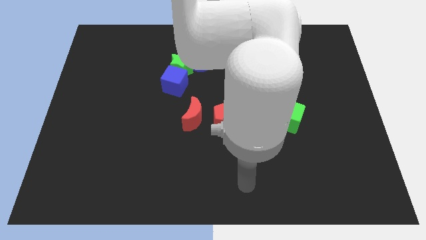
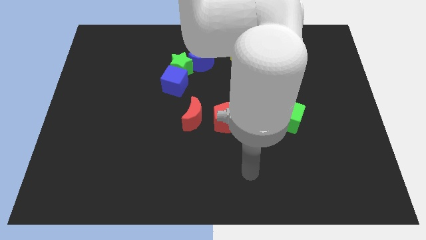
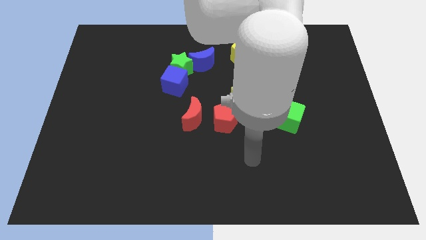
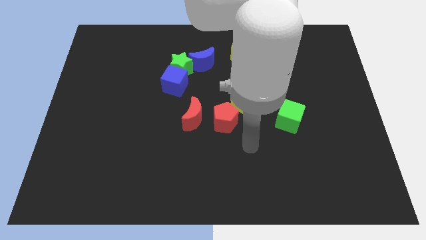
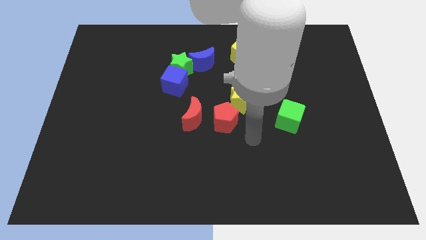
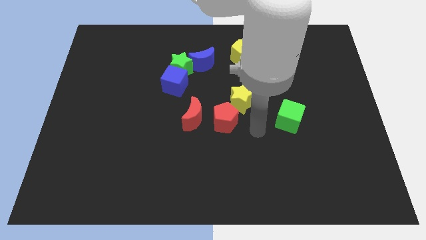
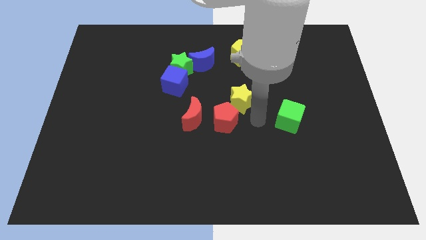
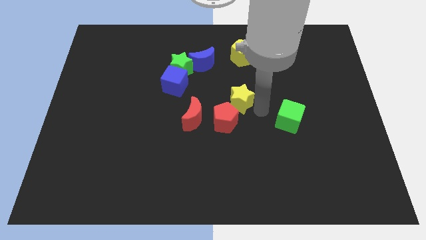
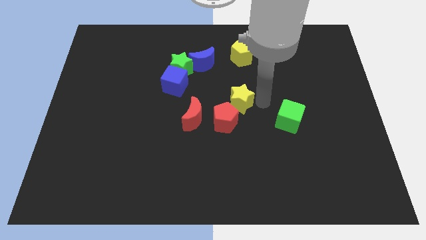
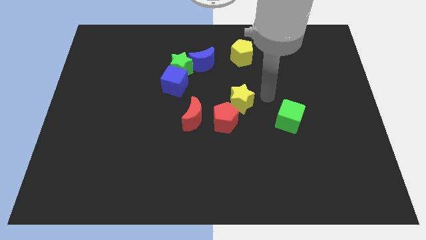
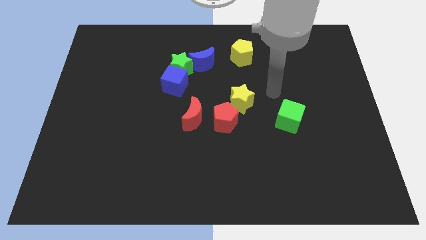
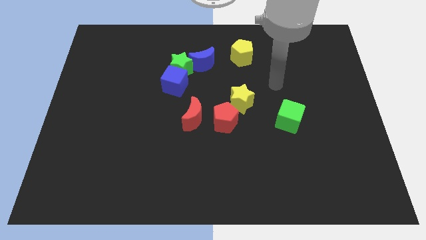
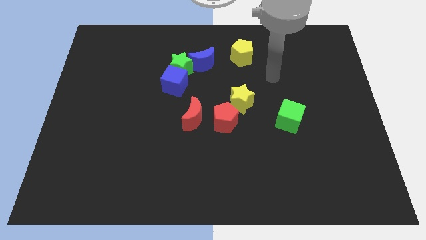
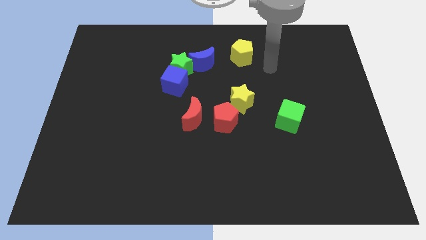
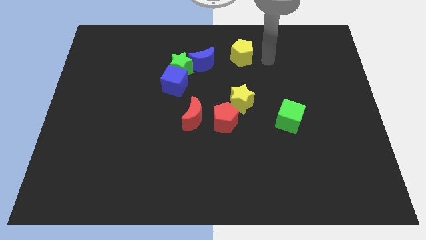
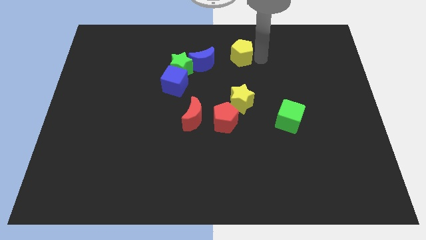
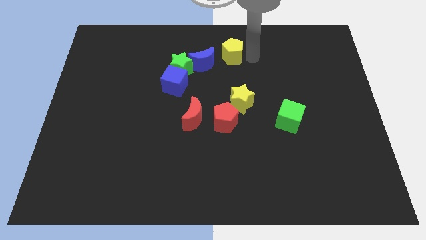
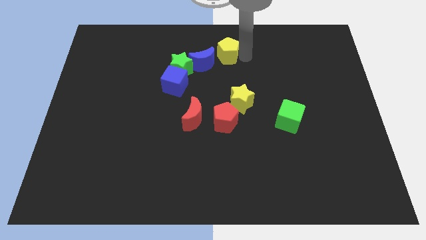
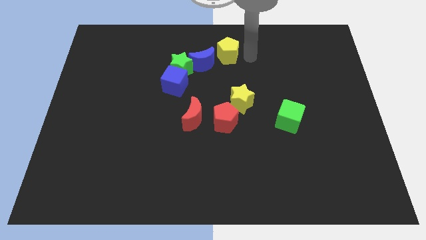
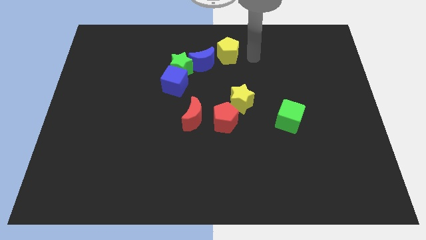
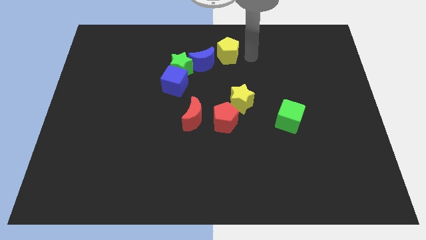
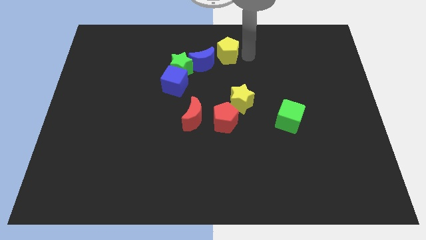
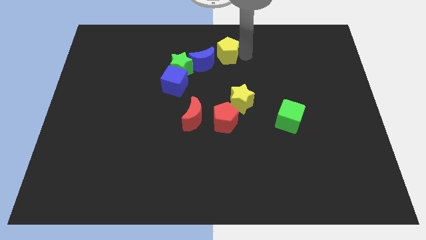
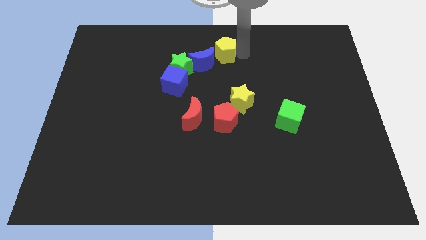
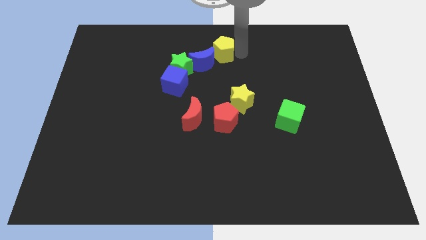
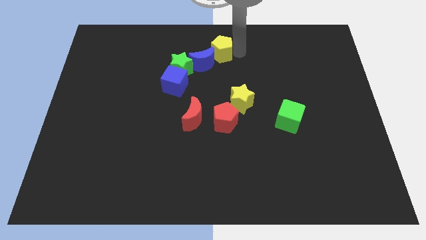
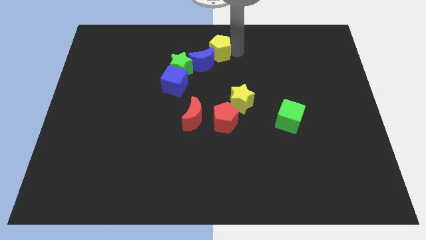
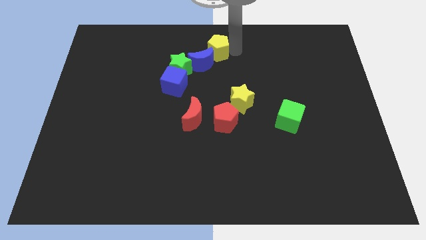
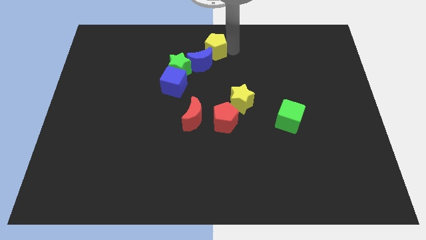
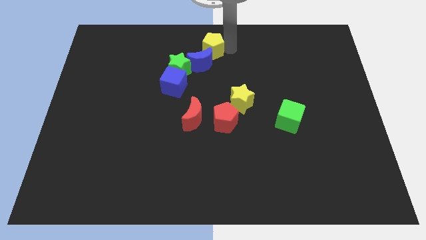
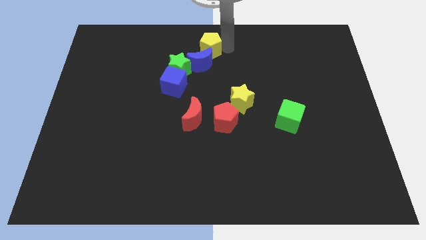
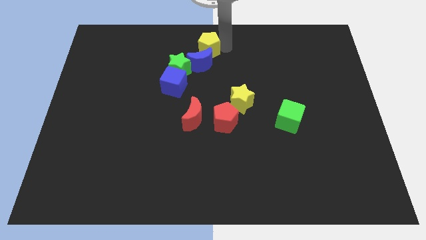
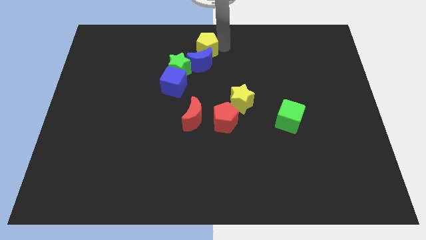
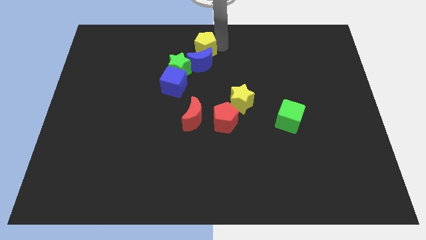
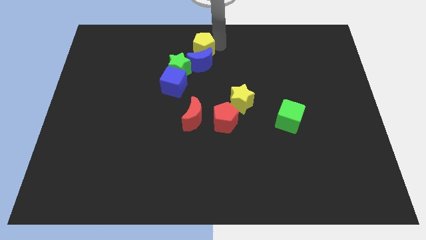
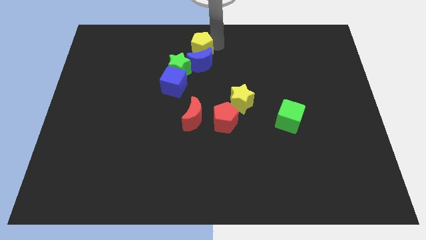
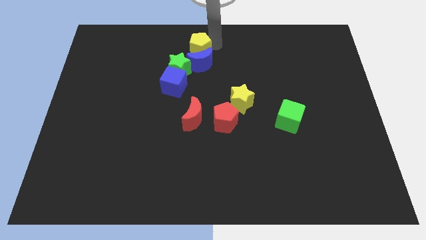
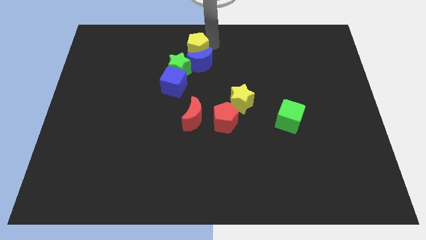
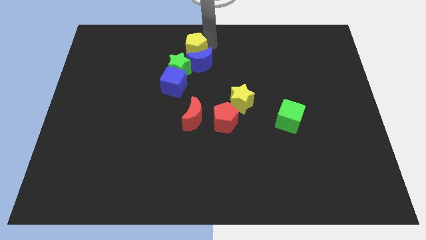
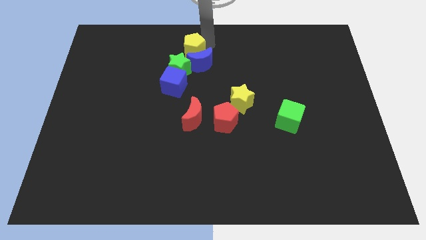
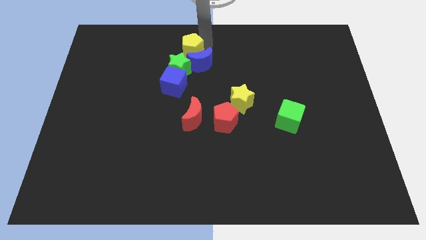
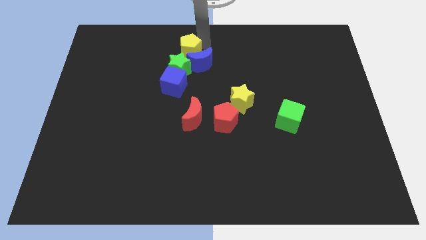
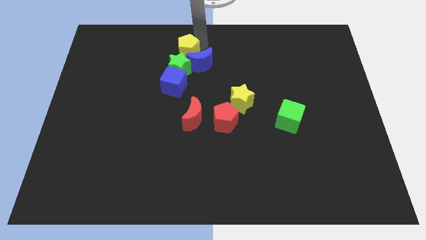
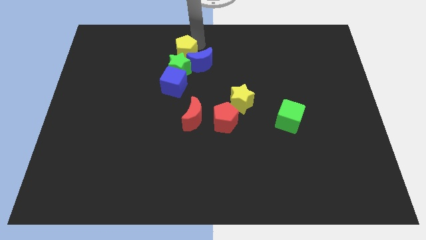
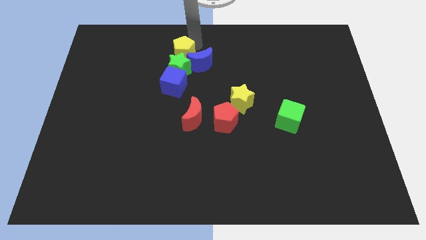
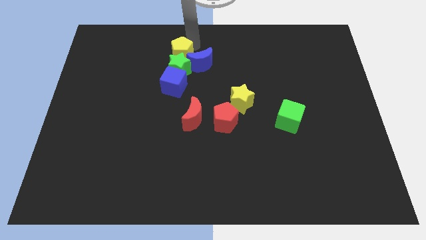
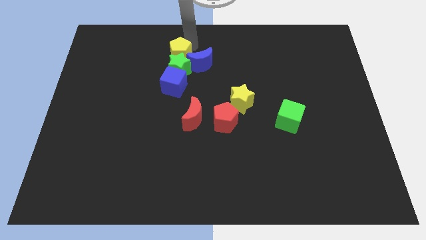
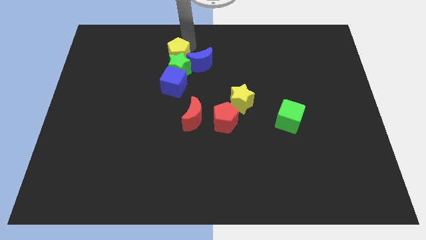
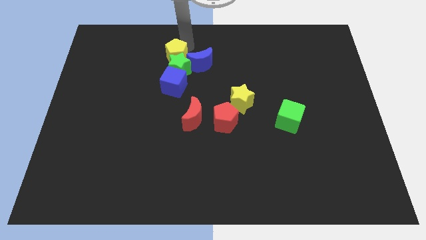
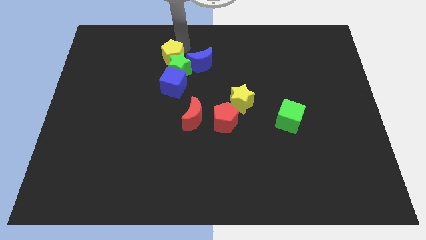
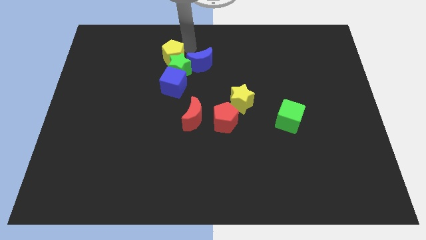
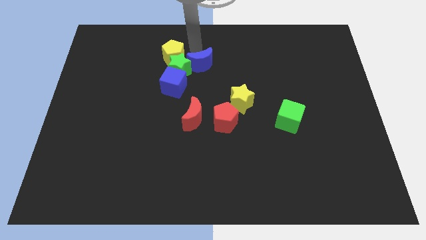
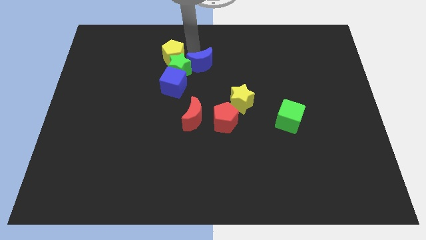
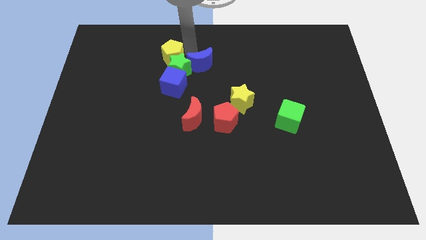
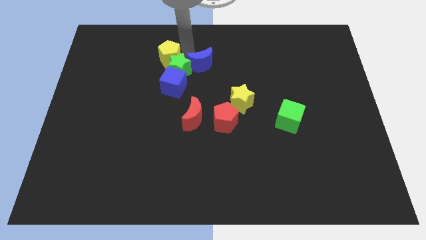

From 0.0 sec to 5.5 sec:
move the yellow pentagon just left of the green star
